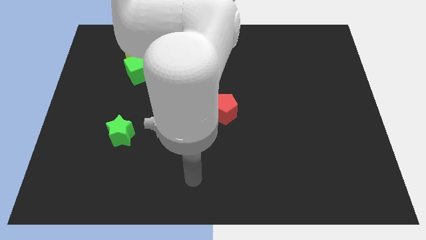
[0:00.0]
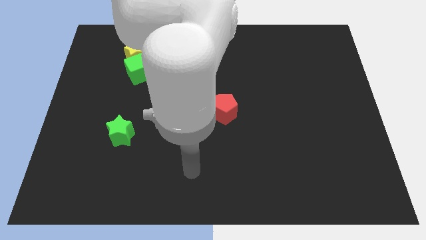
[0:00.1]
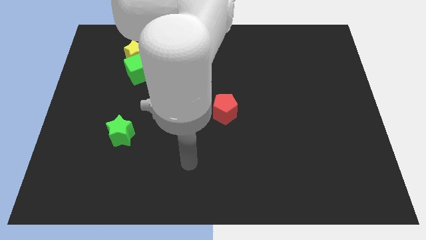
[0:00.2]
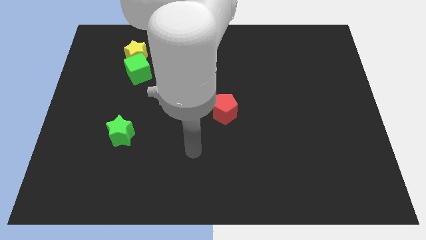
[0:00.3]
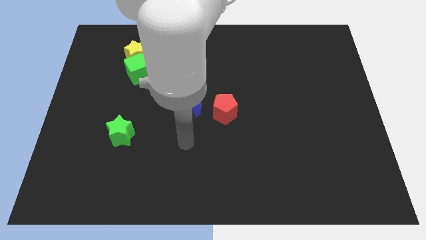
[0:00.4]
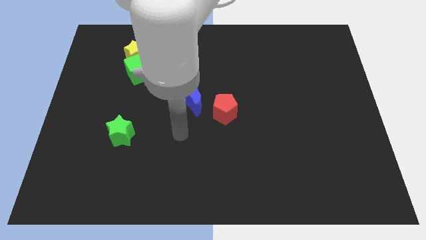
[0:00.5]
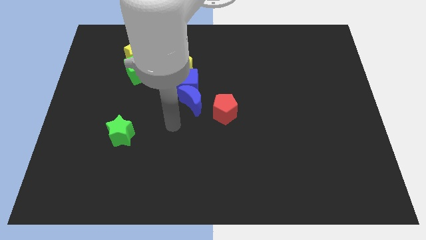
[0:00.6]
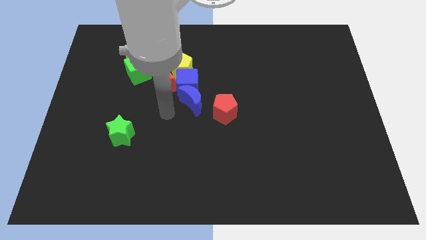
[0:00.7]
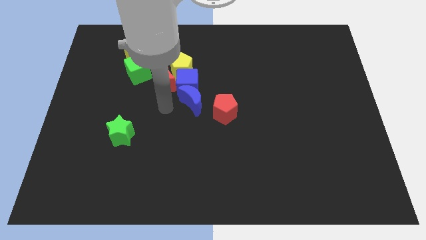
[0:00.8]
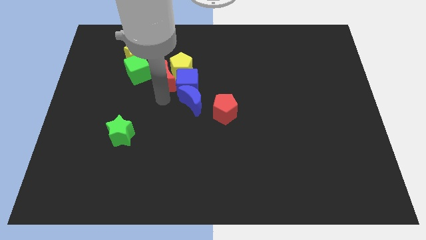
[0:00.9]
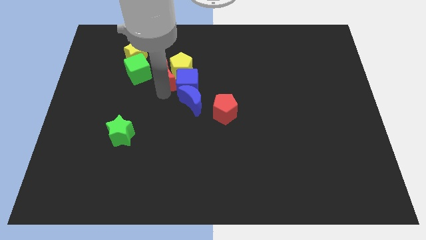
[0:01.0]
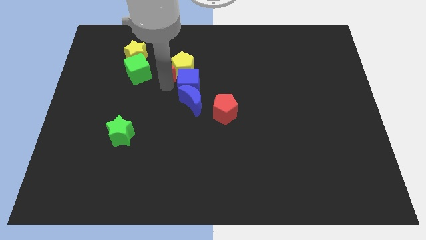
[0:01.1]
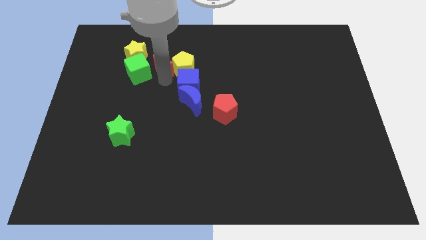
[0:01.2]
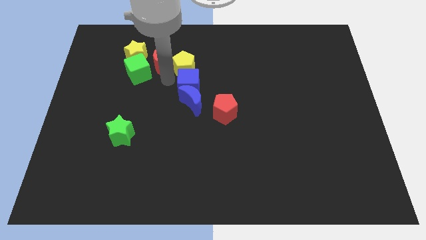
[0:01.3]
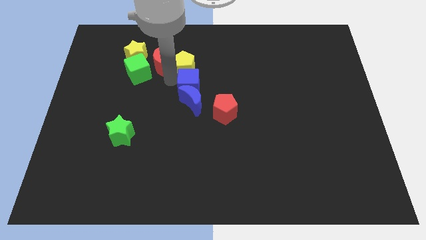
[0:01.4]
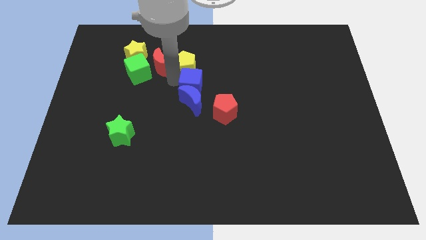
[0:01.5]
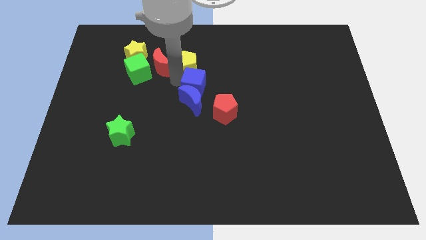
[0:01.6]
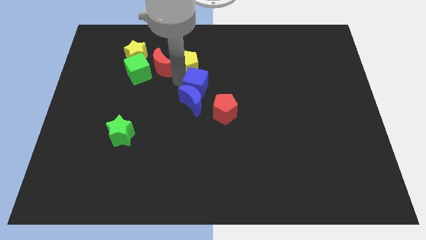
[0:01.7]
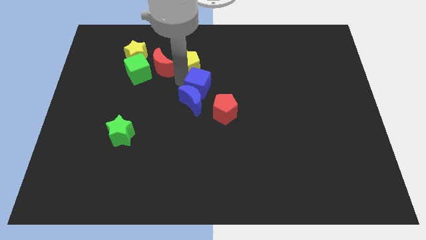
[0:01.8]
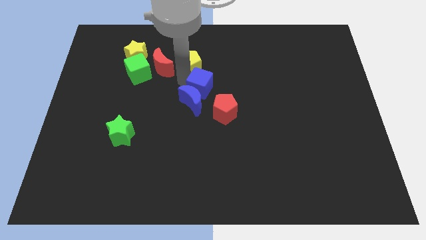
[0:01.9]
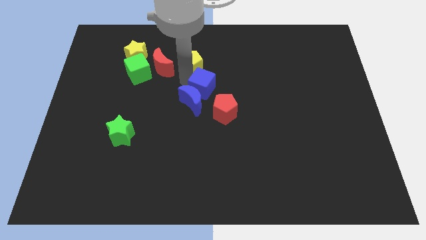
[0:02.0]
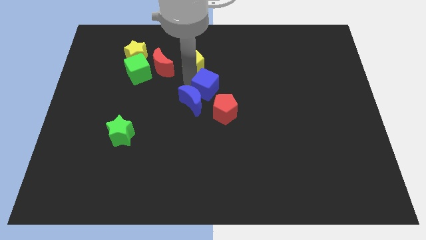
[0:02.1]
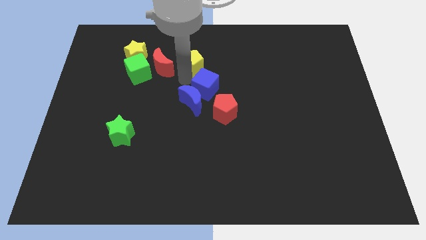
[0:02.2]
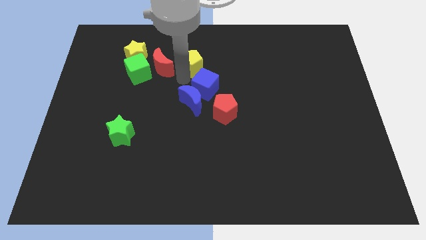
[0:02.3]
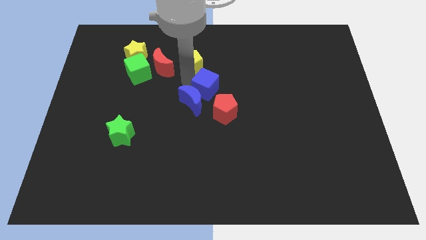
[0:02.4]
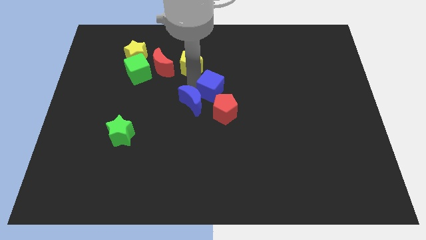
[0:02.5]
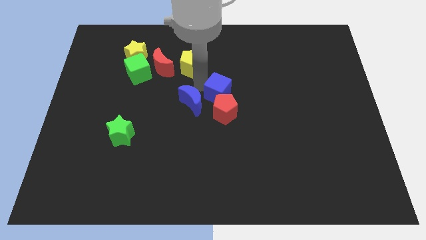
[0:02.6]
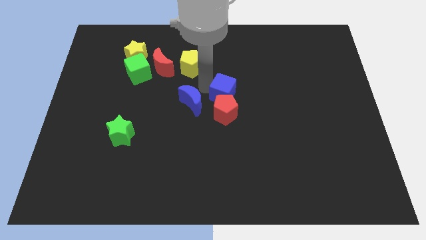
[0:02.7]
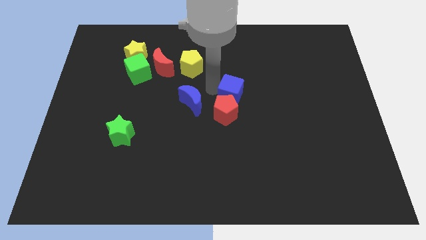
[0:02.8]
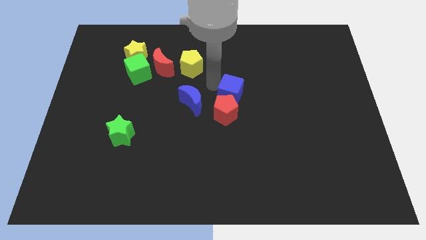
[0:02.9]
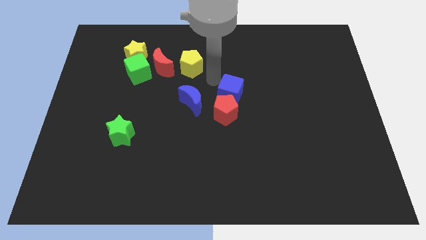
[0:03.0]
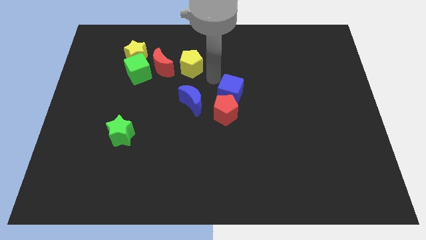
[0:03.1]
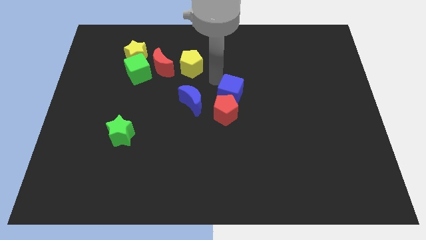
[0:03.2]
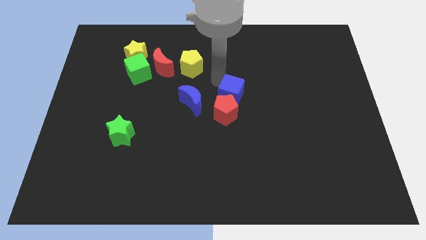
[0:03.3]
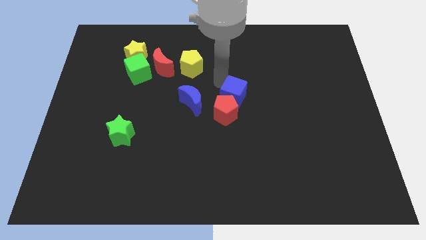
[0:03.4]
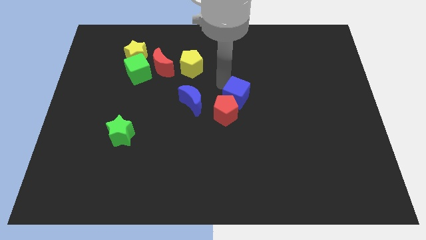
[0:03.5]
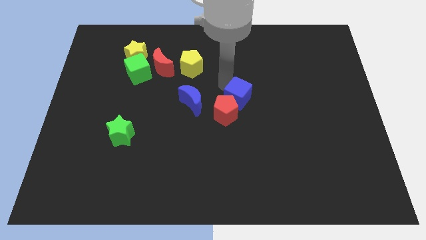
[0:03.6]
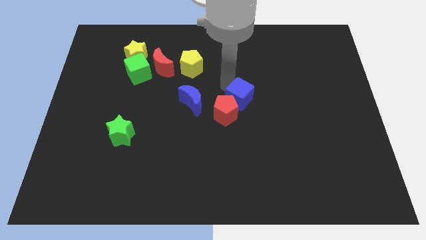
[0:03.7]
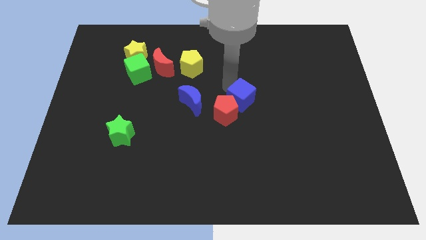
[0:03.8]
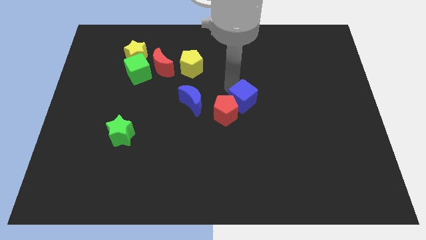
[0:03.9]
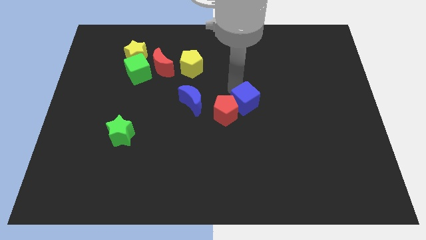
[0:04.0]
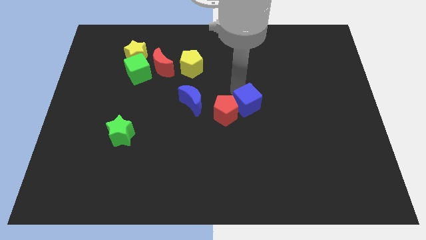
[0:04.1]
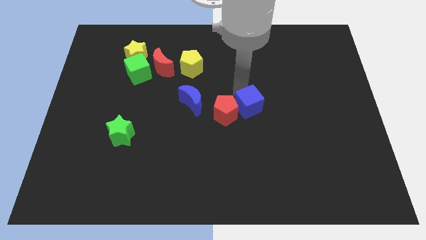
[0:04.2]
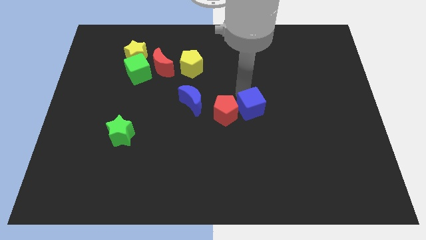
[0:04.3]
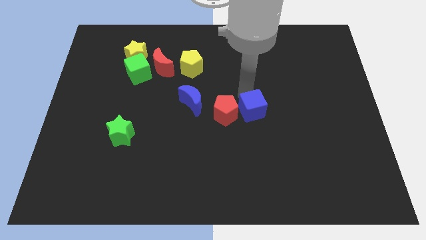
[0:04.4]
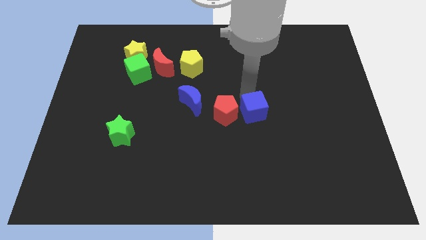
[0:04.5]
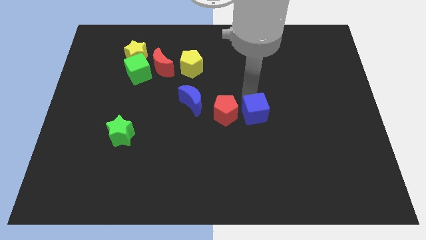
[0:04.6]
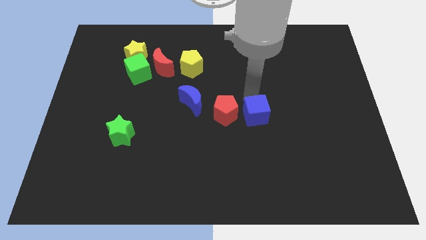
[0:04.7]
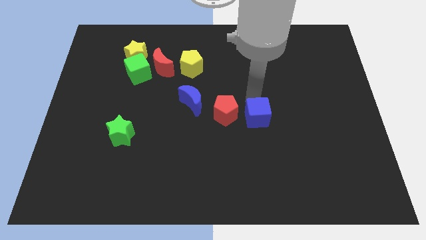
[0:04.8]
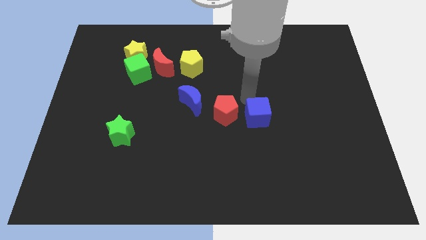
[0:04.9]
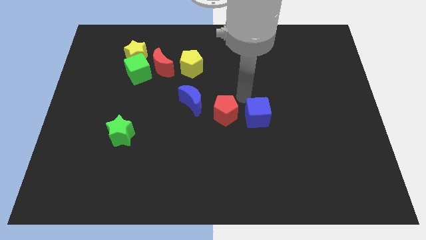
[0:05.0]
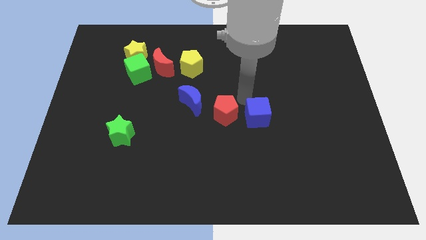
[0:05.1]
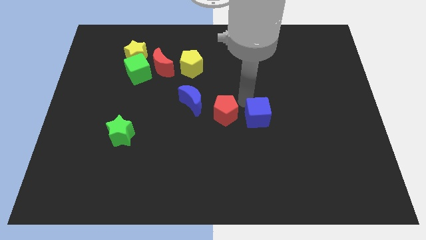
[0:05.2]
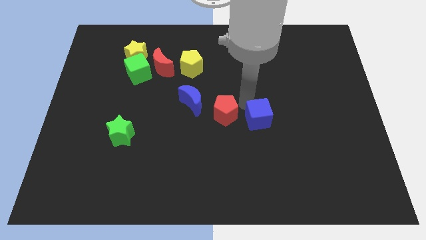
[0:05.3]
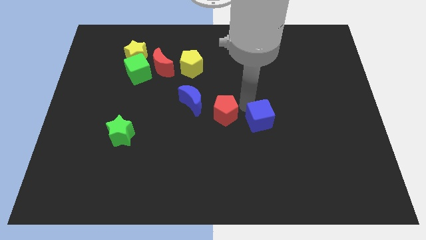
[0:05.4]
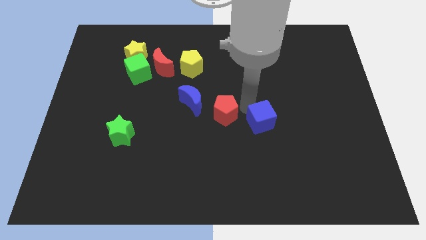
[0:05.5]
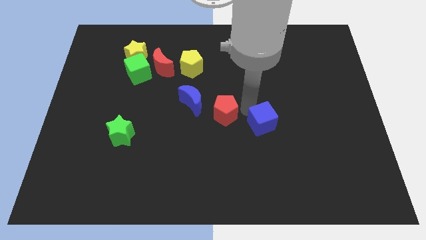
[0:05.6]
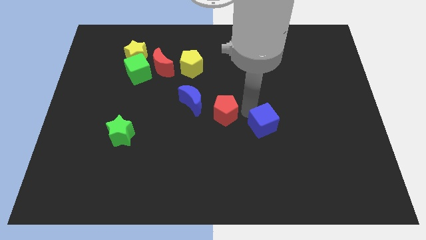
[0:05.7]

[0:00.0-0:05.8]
slide the blue cube diagonally down and right

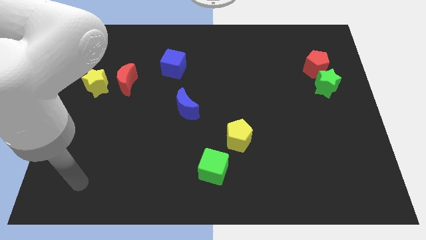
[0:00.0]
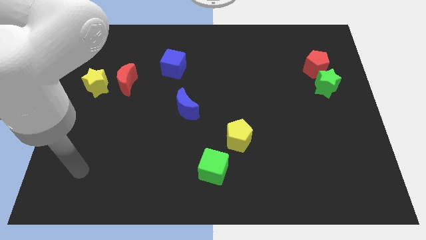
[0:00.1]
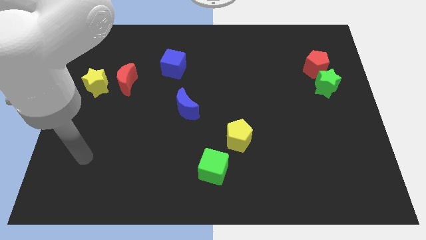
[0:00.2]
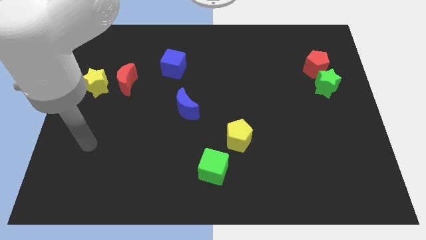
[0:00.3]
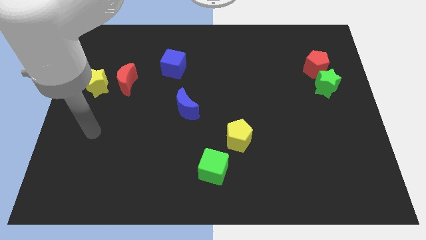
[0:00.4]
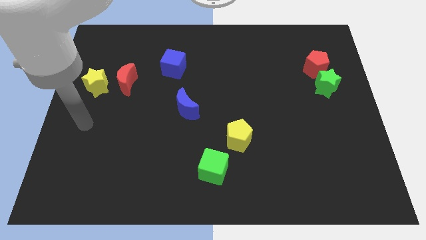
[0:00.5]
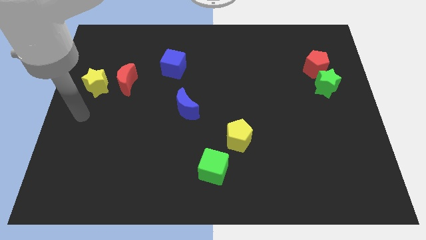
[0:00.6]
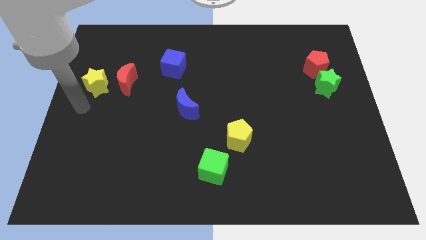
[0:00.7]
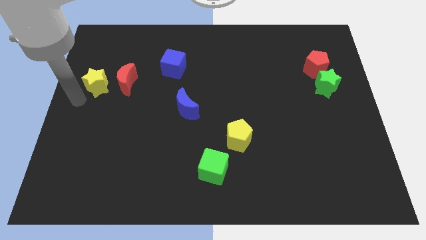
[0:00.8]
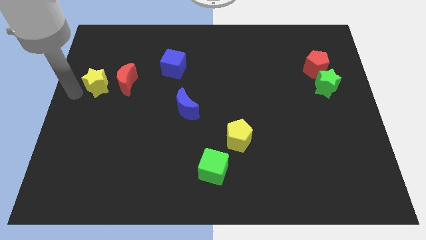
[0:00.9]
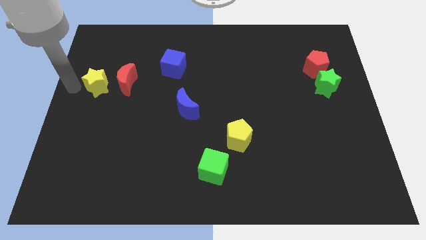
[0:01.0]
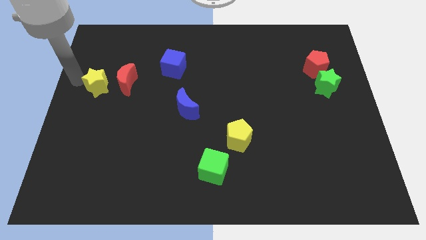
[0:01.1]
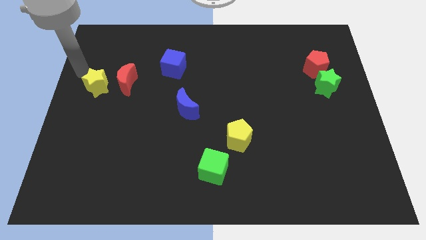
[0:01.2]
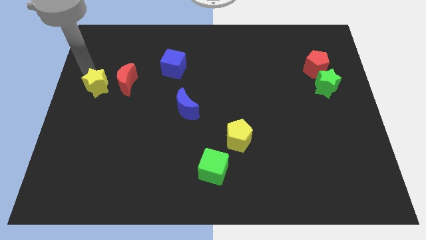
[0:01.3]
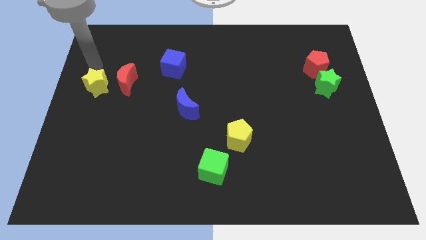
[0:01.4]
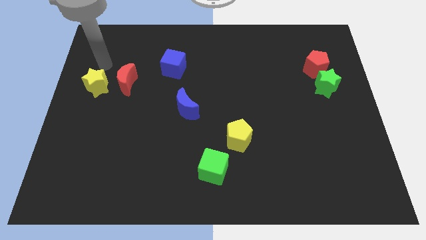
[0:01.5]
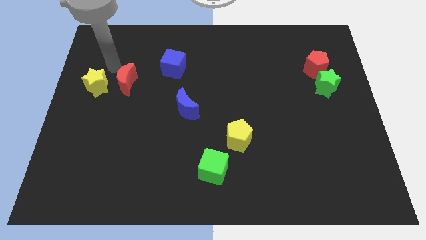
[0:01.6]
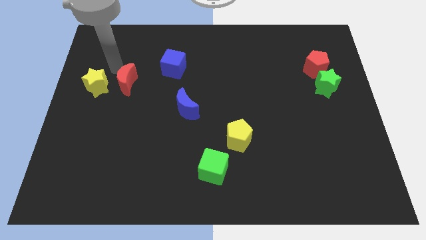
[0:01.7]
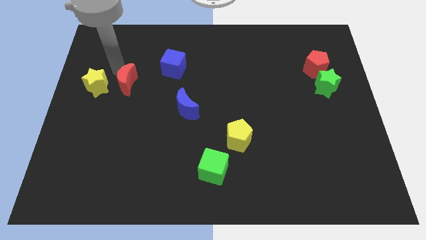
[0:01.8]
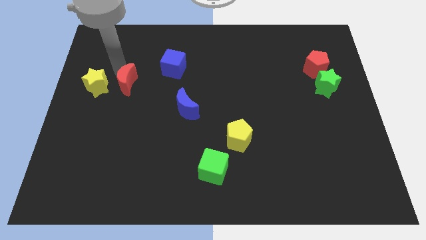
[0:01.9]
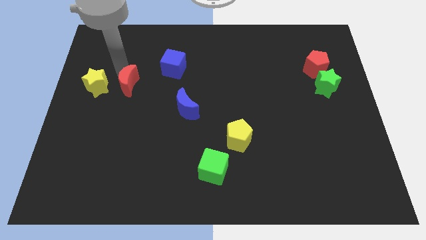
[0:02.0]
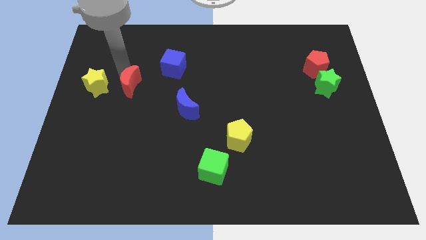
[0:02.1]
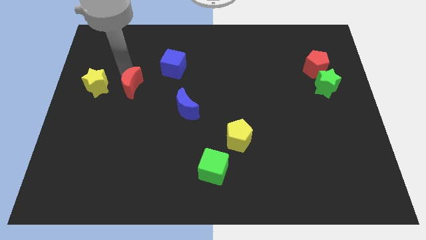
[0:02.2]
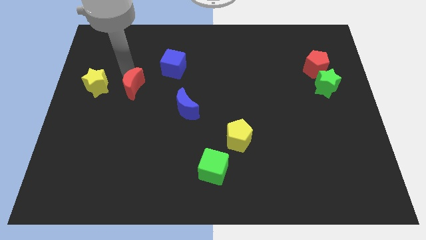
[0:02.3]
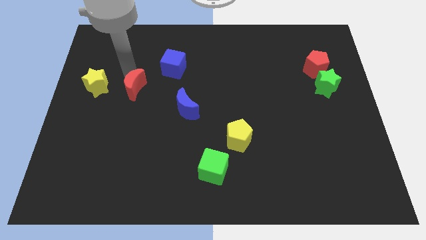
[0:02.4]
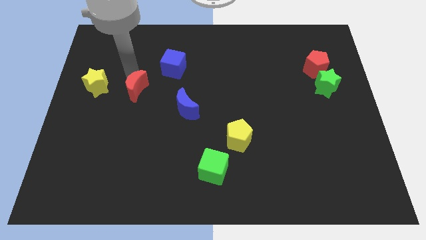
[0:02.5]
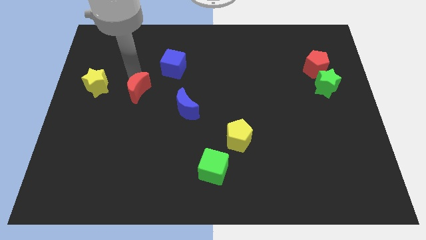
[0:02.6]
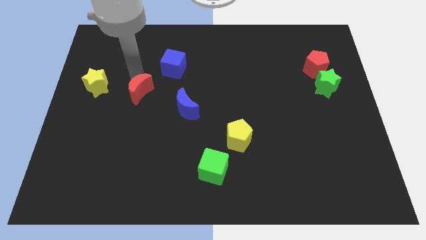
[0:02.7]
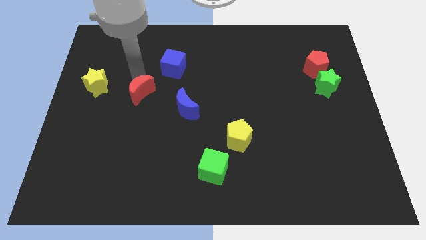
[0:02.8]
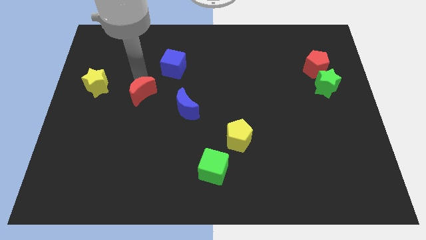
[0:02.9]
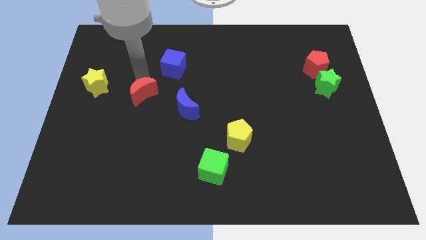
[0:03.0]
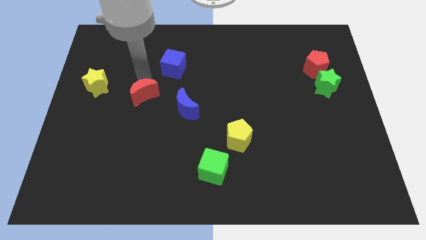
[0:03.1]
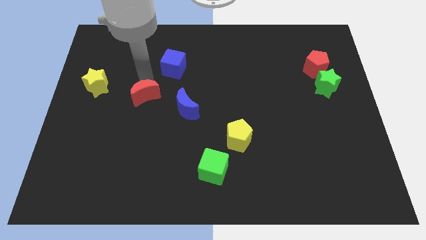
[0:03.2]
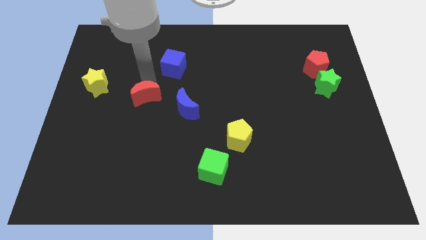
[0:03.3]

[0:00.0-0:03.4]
slightly push the red moon down and to the right diagonally
